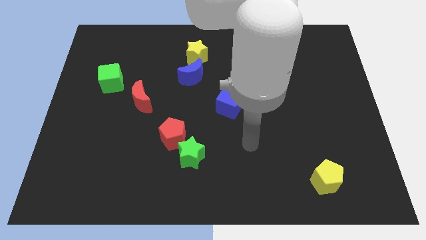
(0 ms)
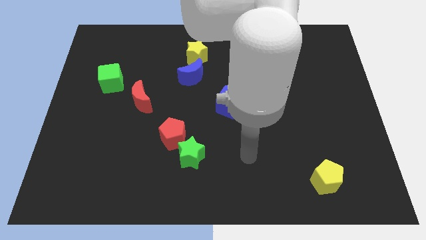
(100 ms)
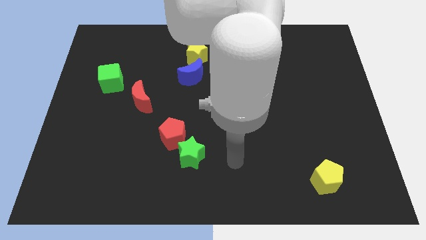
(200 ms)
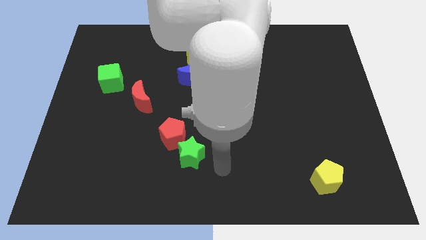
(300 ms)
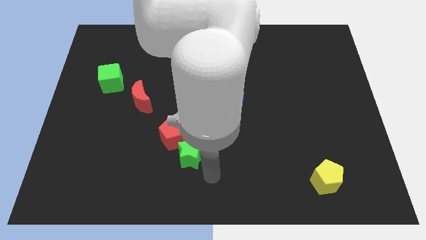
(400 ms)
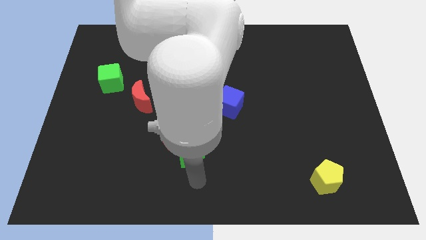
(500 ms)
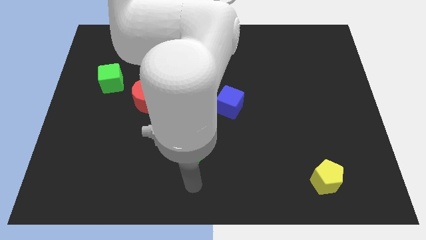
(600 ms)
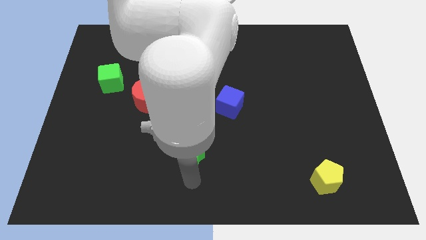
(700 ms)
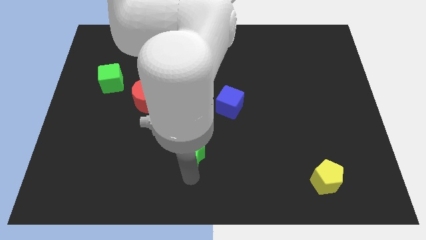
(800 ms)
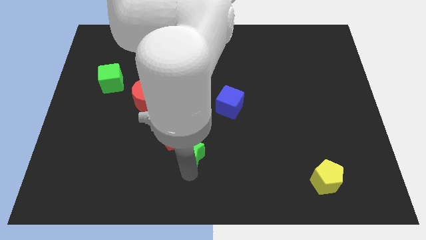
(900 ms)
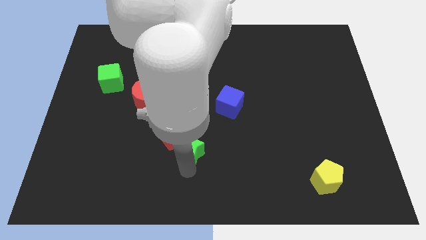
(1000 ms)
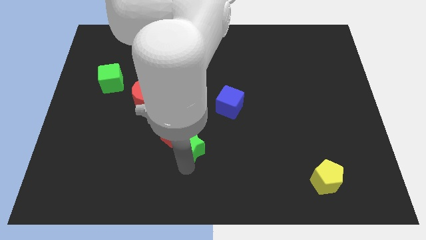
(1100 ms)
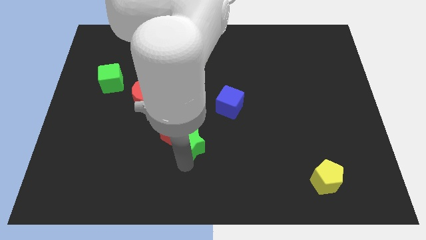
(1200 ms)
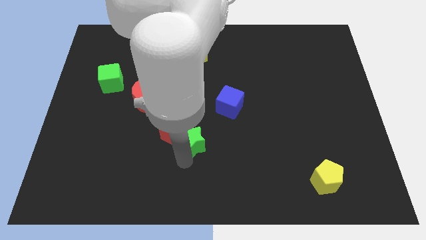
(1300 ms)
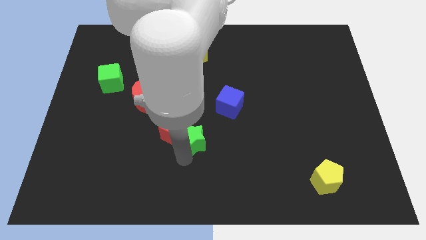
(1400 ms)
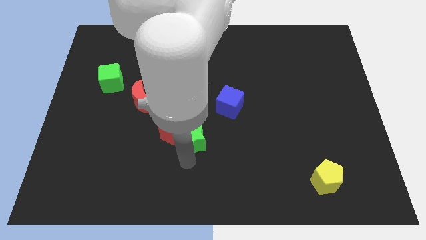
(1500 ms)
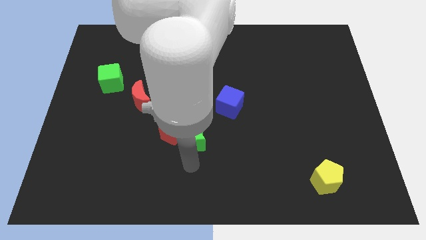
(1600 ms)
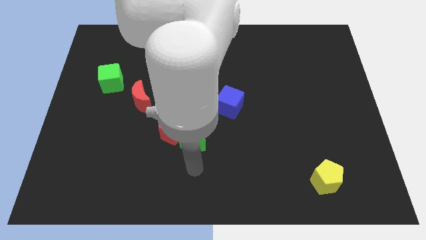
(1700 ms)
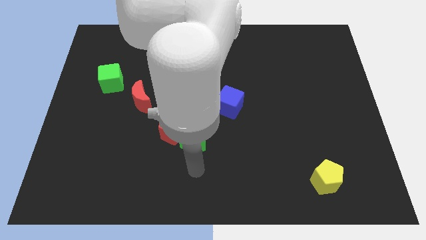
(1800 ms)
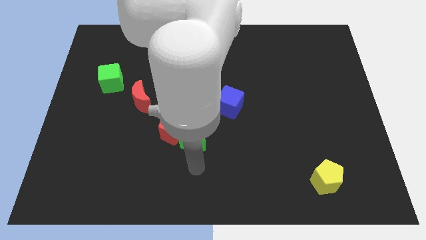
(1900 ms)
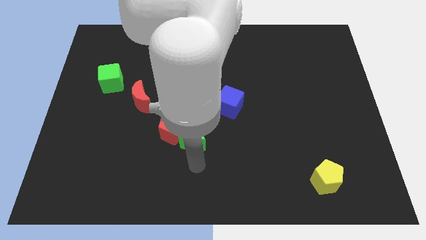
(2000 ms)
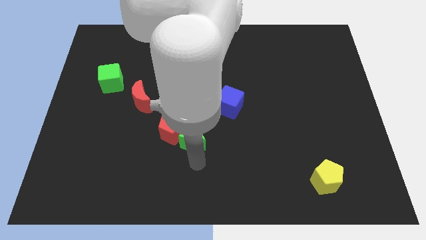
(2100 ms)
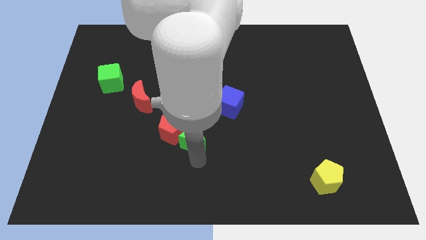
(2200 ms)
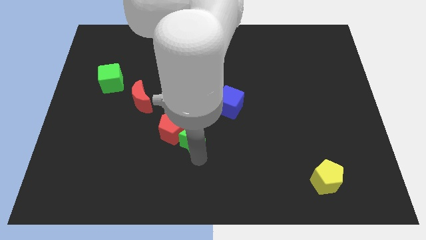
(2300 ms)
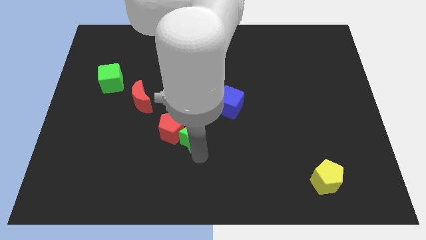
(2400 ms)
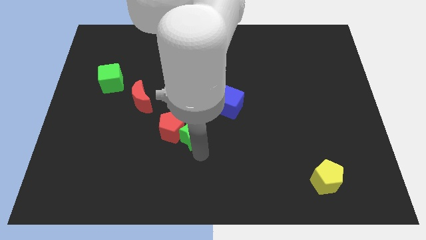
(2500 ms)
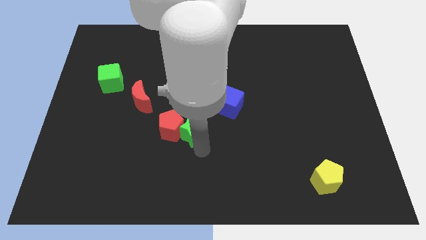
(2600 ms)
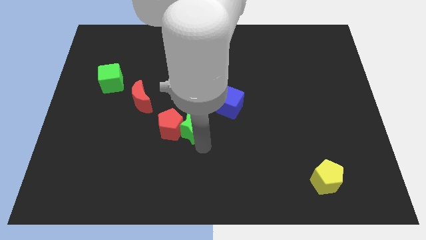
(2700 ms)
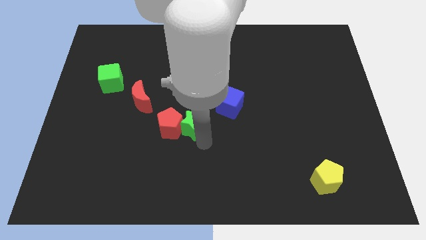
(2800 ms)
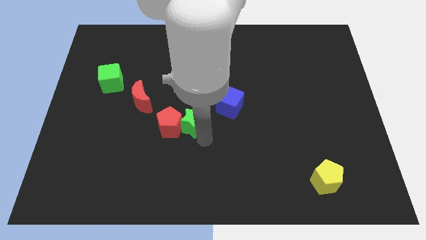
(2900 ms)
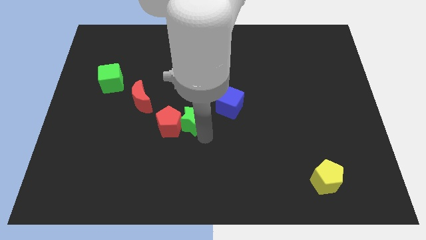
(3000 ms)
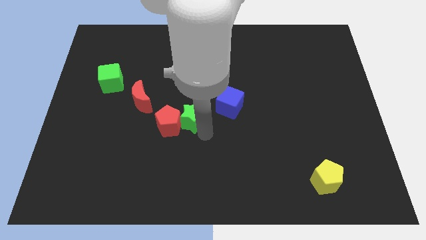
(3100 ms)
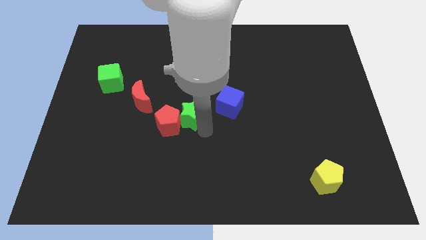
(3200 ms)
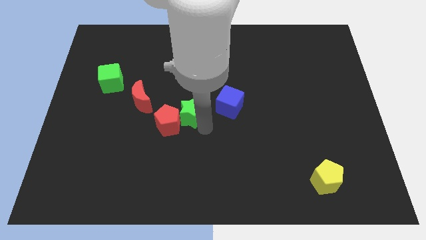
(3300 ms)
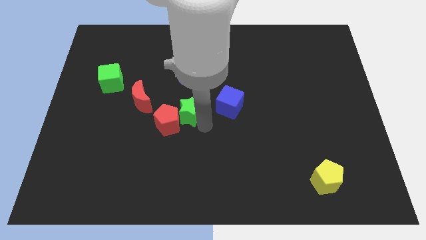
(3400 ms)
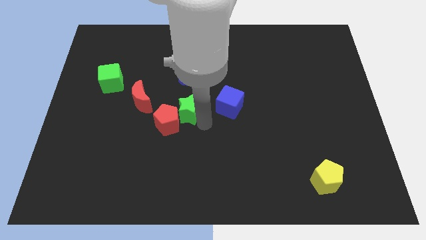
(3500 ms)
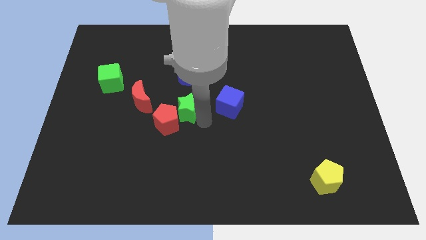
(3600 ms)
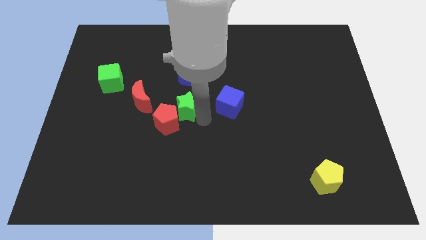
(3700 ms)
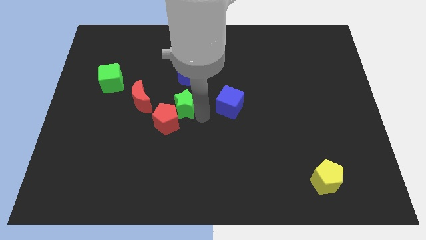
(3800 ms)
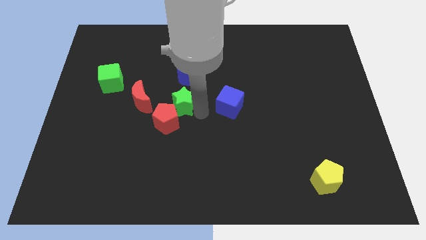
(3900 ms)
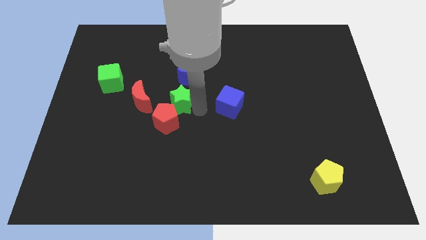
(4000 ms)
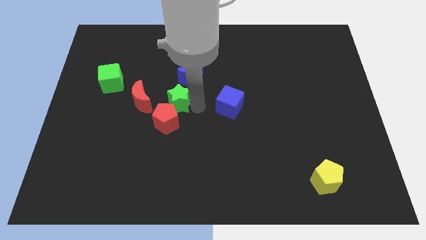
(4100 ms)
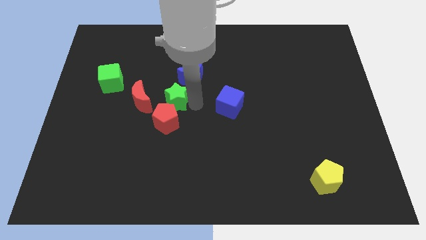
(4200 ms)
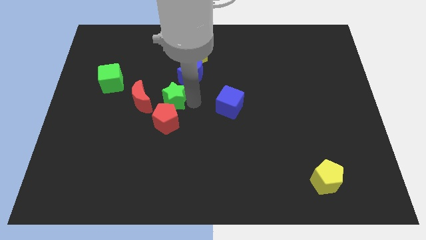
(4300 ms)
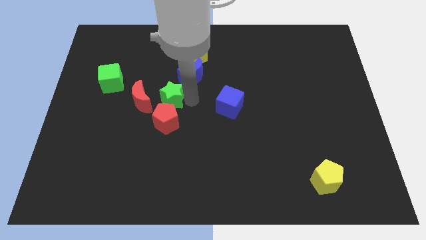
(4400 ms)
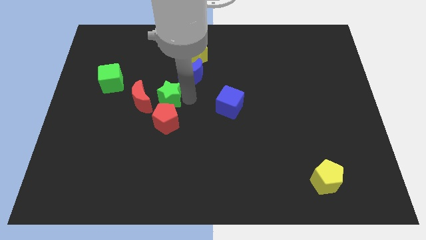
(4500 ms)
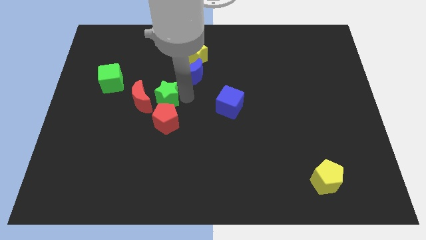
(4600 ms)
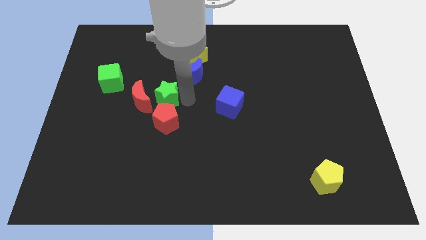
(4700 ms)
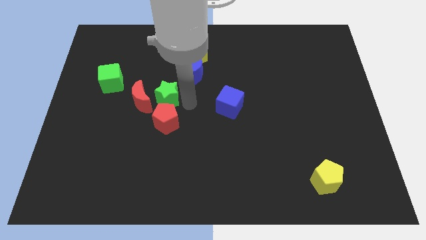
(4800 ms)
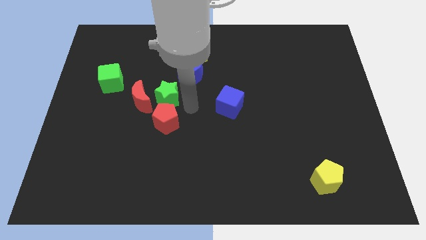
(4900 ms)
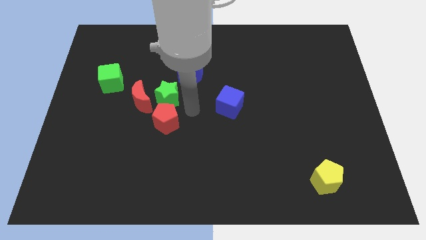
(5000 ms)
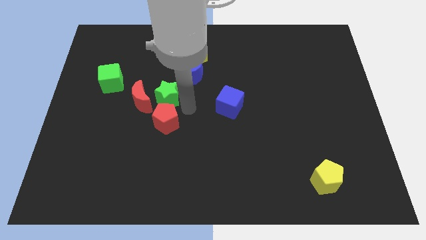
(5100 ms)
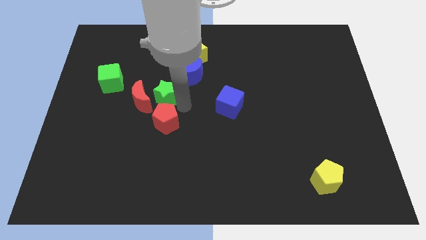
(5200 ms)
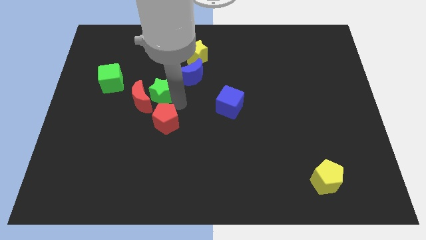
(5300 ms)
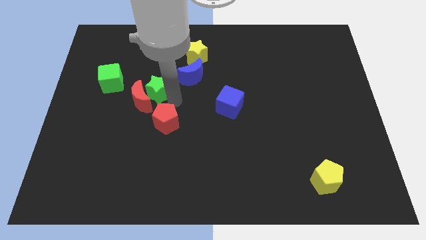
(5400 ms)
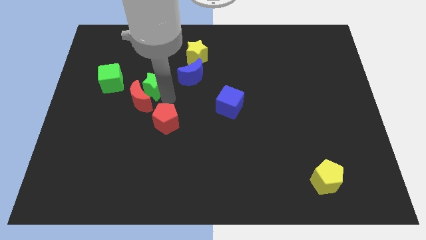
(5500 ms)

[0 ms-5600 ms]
put the green star left of the blue moon

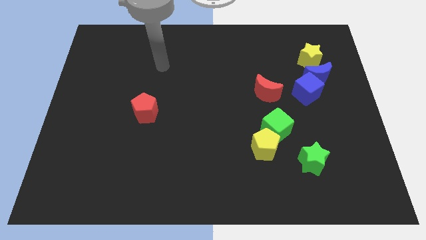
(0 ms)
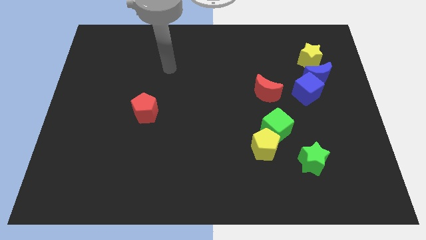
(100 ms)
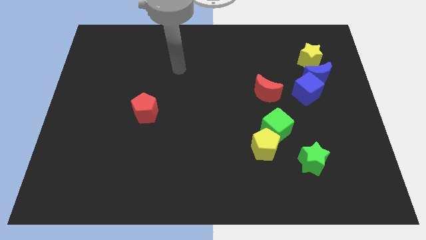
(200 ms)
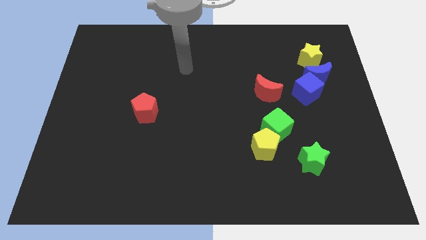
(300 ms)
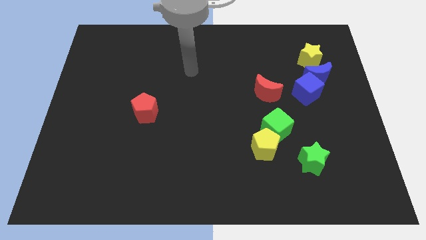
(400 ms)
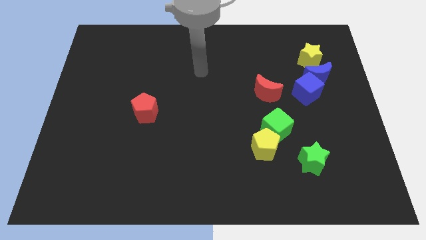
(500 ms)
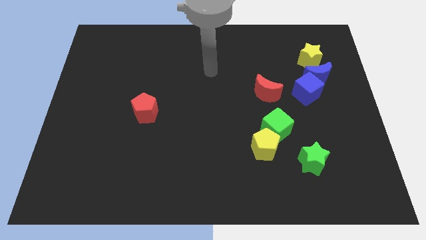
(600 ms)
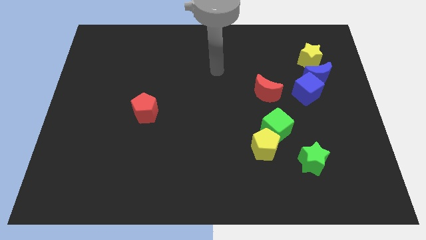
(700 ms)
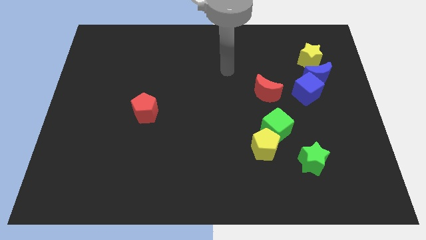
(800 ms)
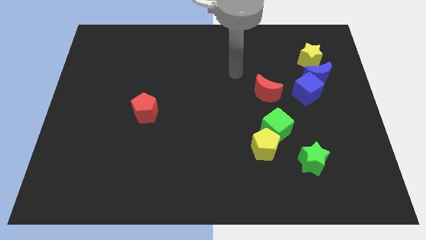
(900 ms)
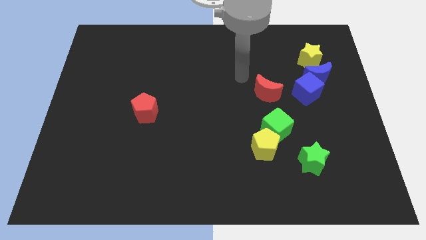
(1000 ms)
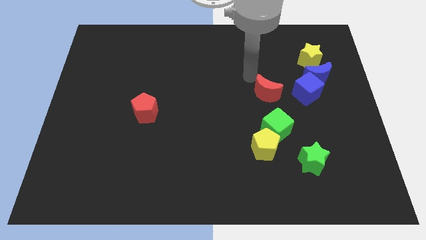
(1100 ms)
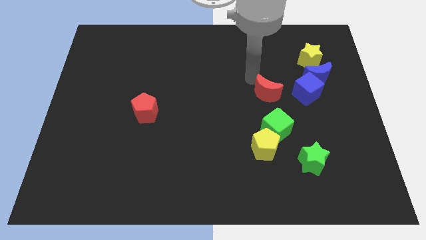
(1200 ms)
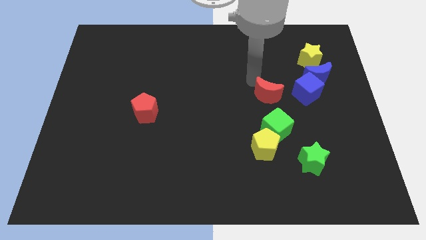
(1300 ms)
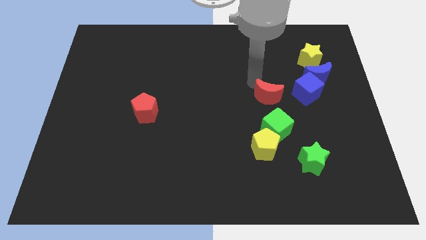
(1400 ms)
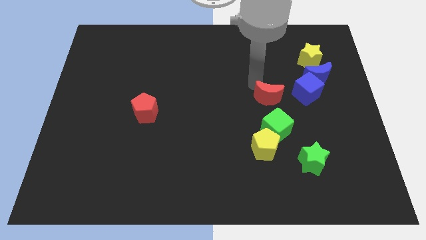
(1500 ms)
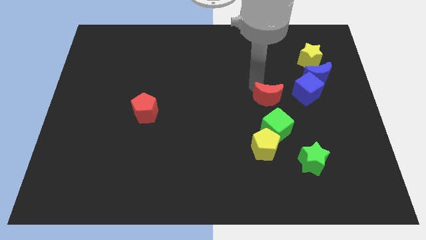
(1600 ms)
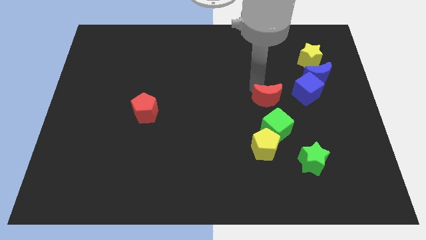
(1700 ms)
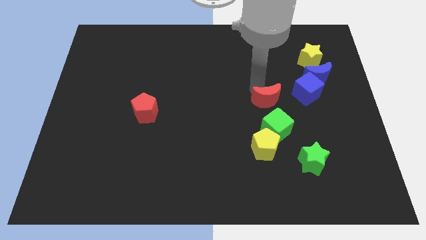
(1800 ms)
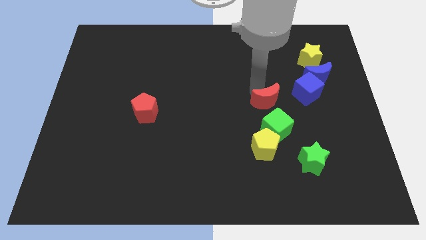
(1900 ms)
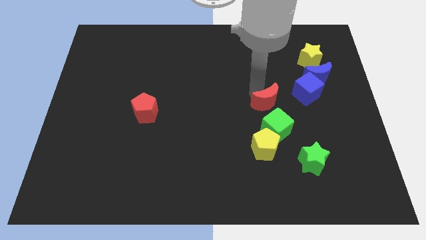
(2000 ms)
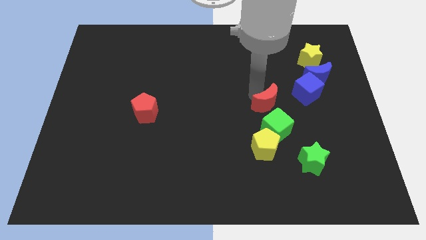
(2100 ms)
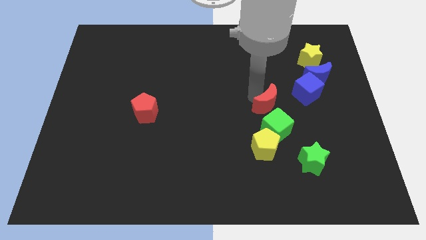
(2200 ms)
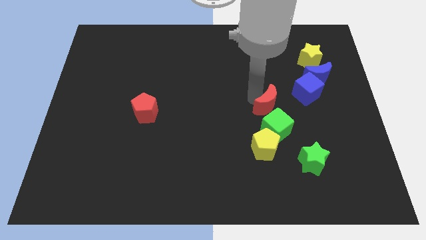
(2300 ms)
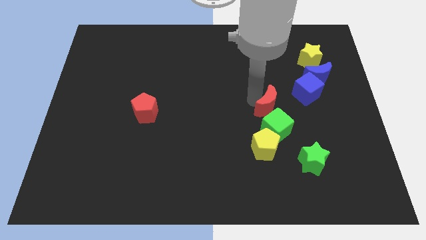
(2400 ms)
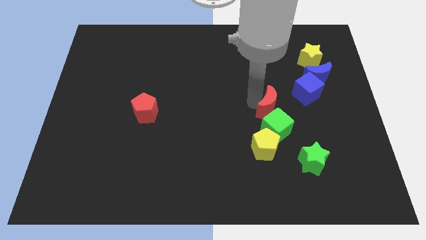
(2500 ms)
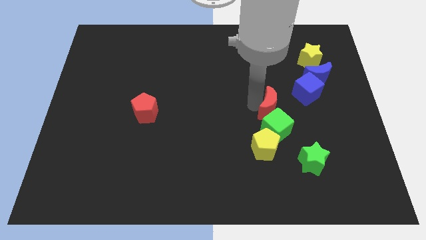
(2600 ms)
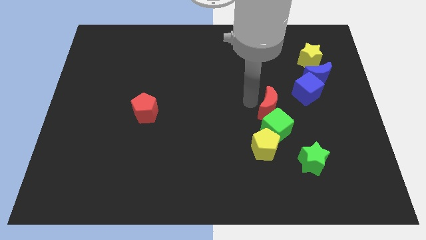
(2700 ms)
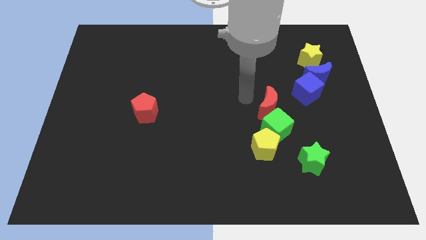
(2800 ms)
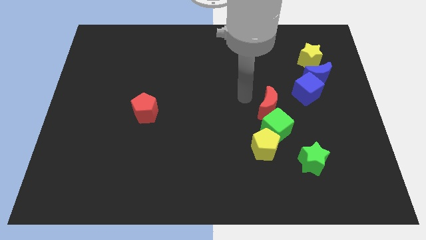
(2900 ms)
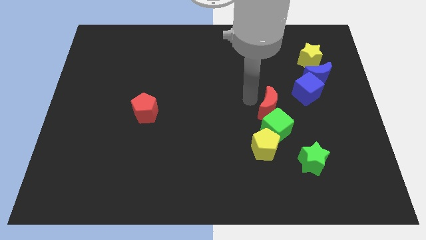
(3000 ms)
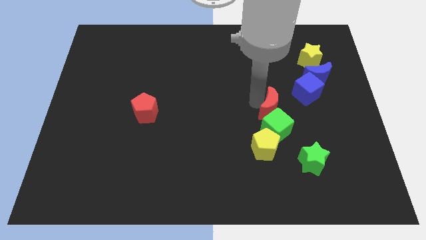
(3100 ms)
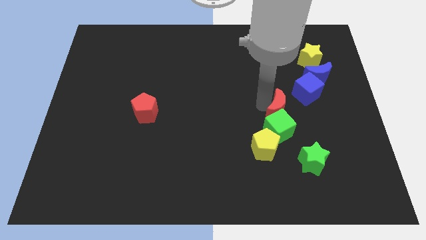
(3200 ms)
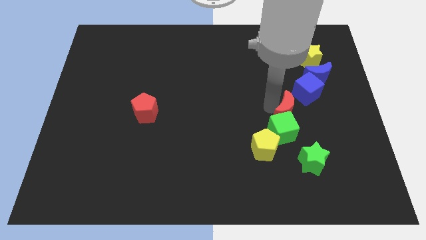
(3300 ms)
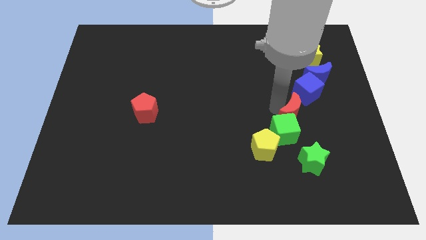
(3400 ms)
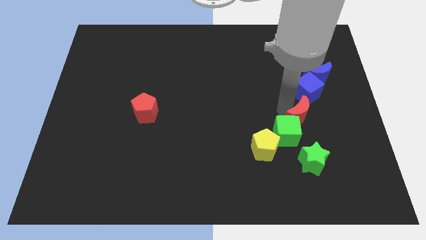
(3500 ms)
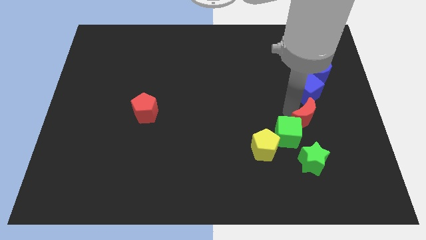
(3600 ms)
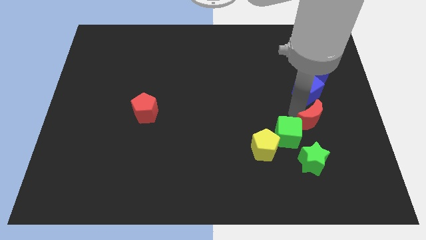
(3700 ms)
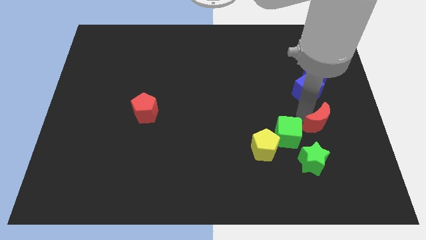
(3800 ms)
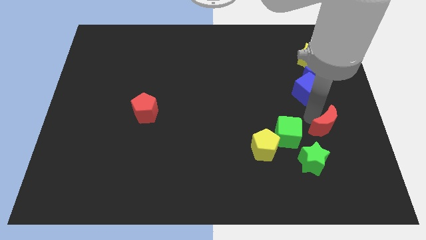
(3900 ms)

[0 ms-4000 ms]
slide the red moon to the top right of the green star
